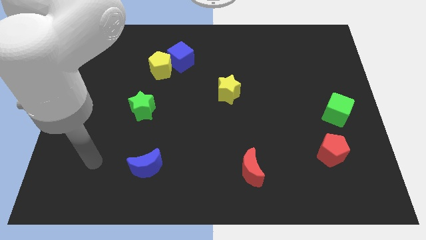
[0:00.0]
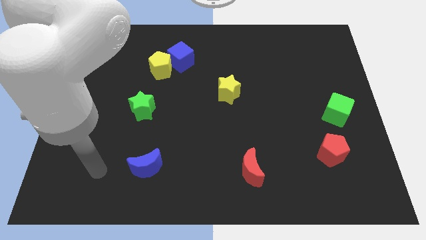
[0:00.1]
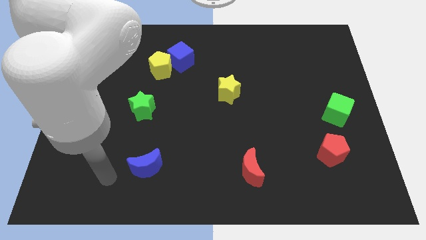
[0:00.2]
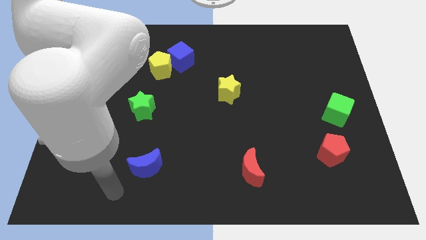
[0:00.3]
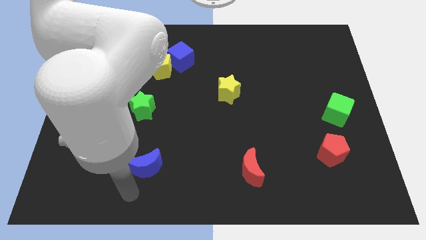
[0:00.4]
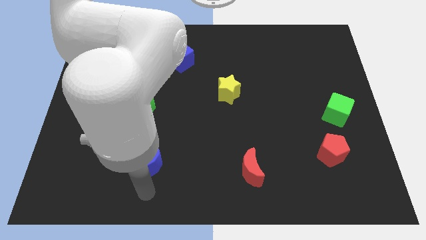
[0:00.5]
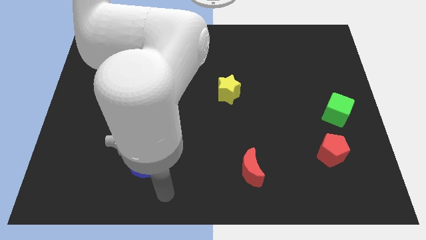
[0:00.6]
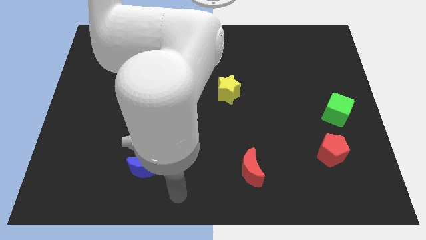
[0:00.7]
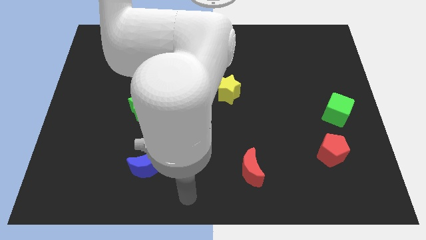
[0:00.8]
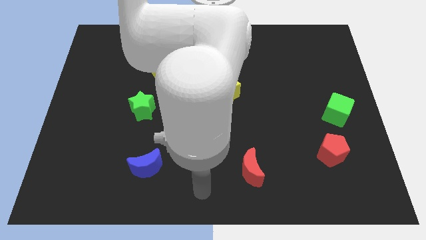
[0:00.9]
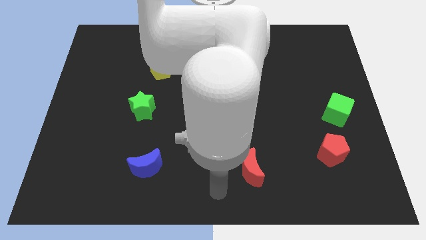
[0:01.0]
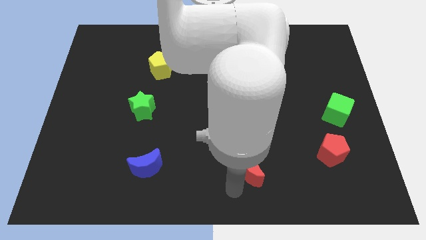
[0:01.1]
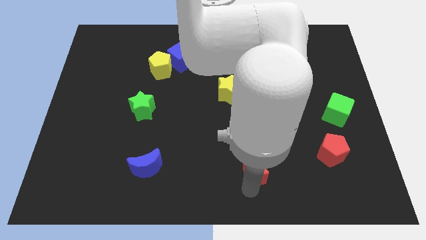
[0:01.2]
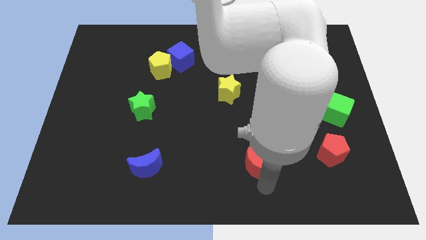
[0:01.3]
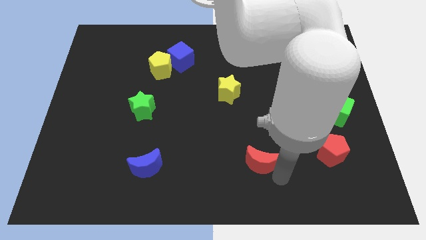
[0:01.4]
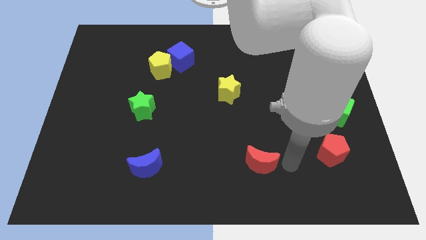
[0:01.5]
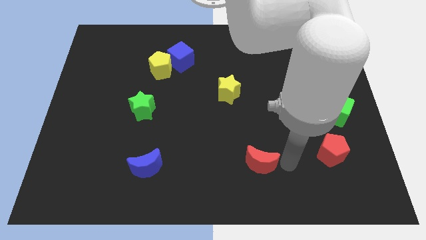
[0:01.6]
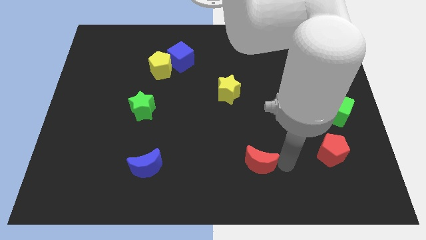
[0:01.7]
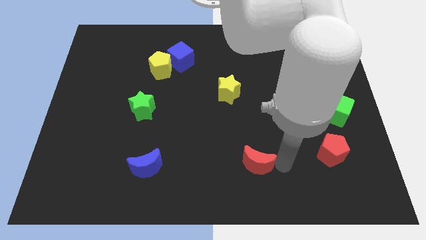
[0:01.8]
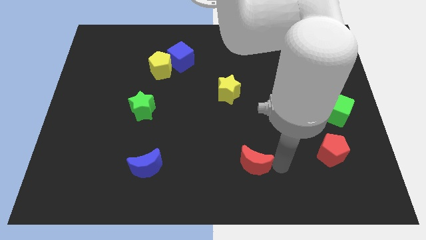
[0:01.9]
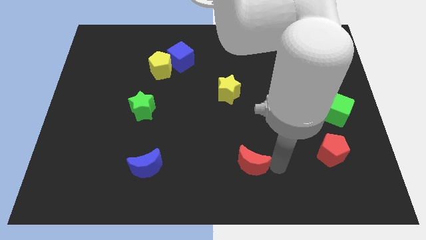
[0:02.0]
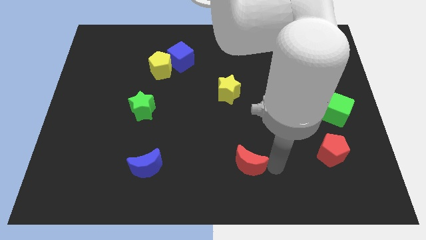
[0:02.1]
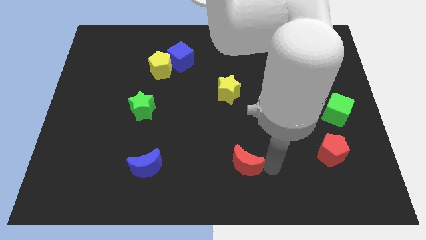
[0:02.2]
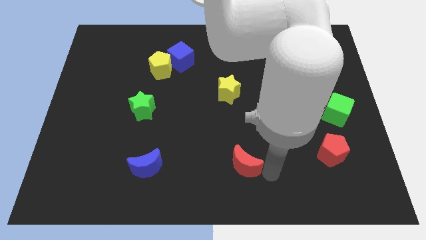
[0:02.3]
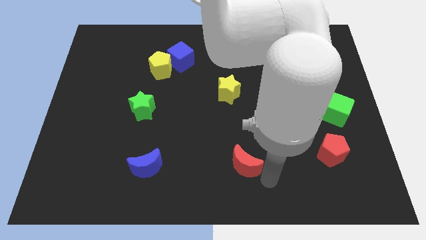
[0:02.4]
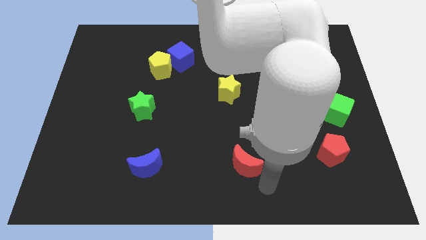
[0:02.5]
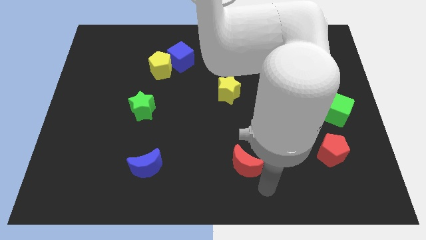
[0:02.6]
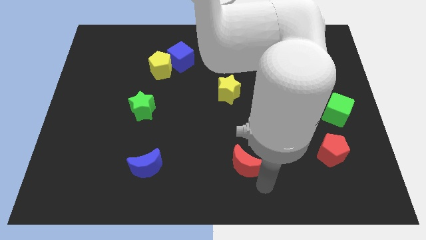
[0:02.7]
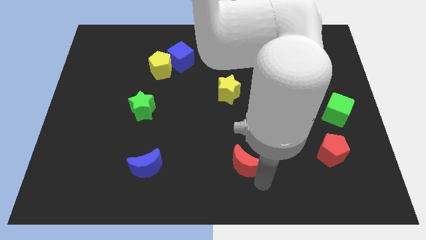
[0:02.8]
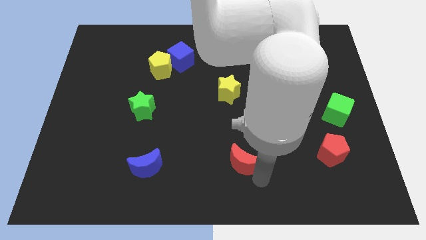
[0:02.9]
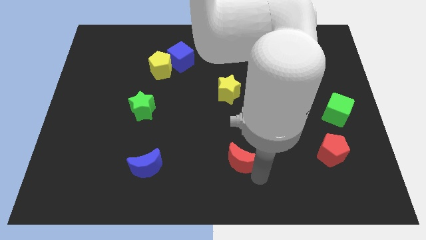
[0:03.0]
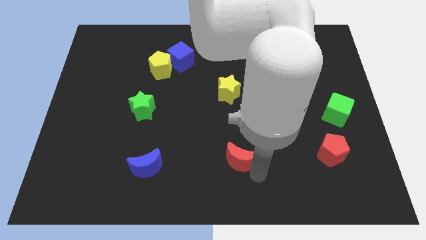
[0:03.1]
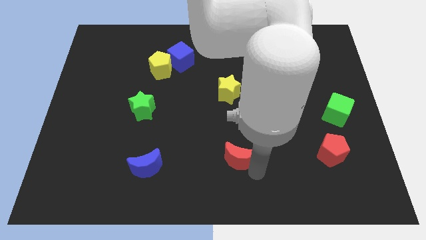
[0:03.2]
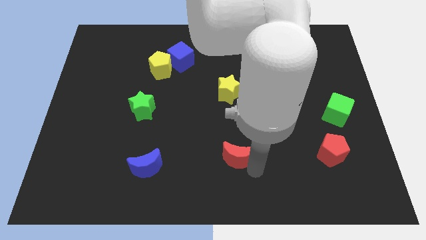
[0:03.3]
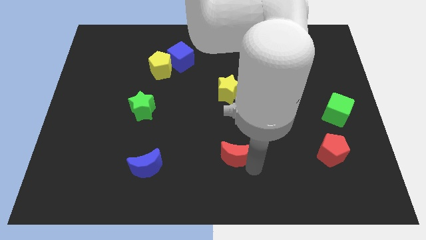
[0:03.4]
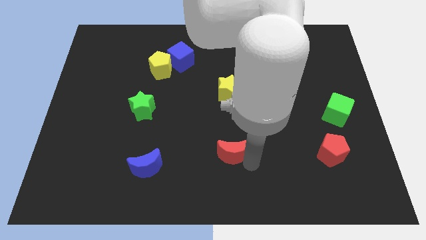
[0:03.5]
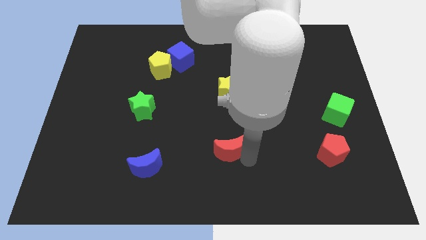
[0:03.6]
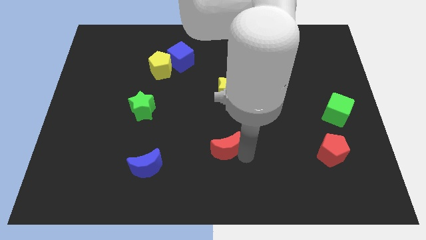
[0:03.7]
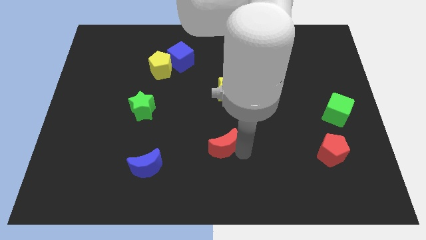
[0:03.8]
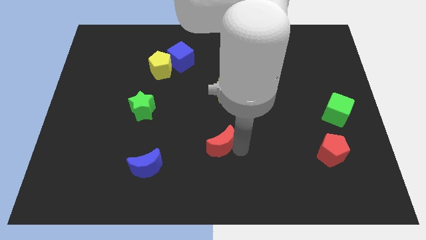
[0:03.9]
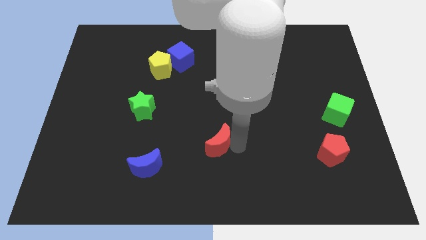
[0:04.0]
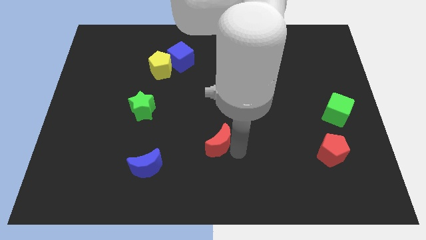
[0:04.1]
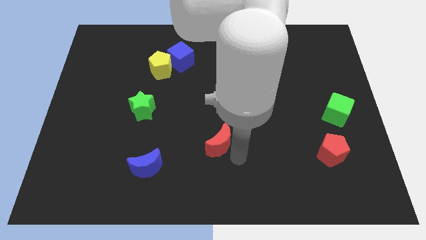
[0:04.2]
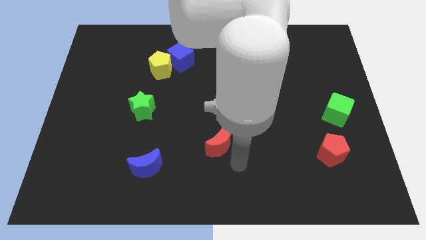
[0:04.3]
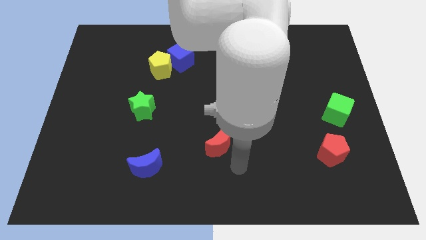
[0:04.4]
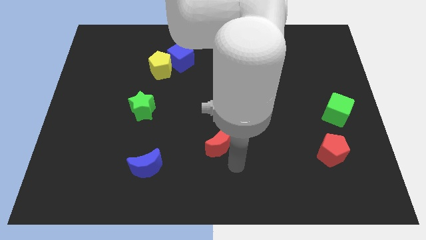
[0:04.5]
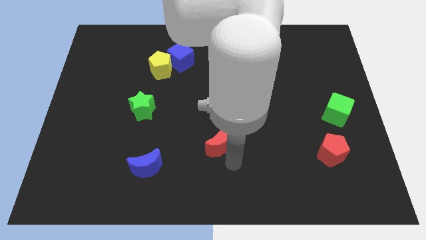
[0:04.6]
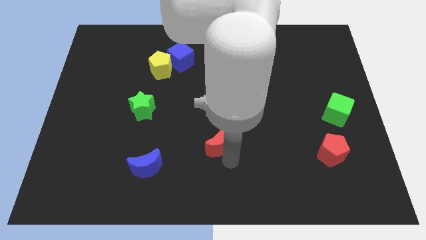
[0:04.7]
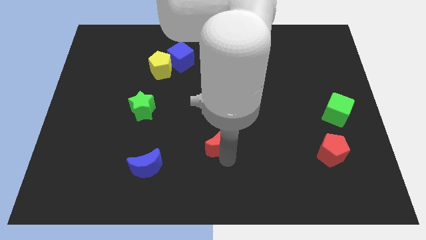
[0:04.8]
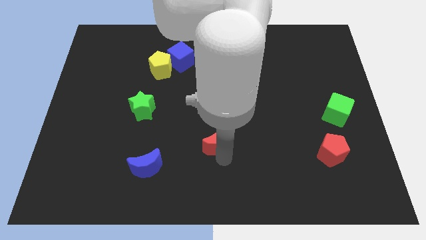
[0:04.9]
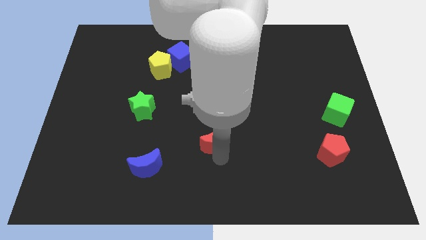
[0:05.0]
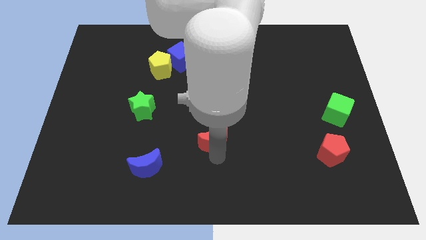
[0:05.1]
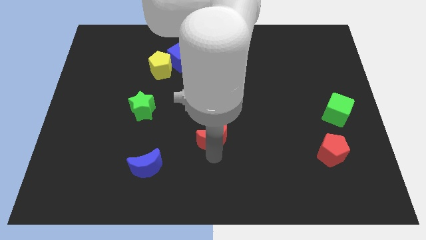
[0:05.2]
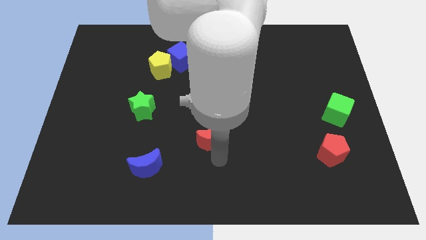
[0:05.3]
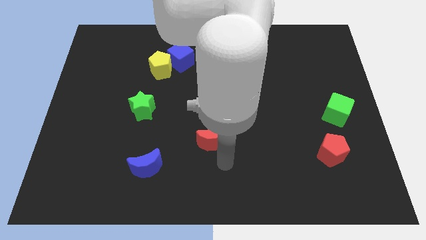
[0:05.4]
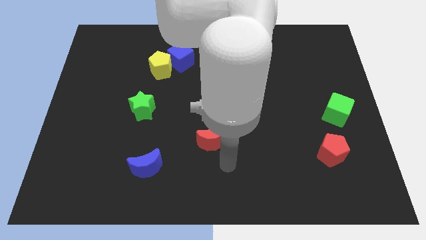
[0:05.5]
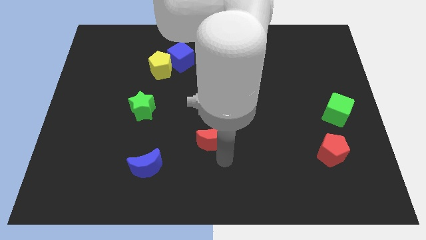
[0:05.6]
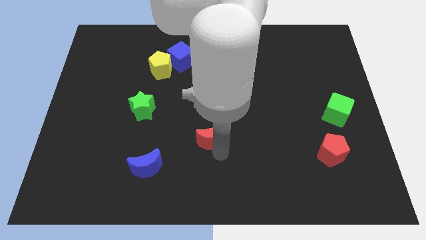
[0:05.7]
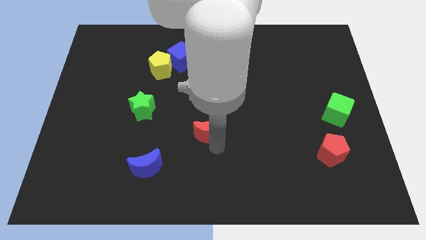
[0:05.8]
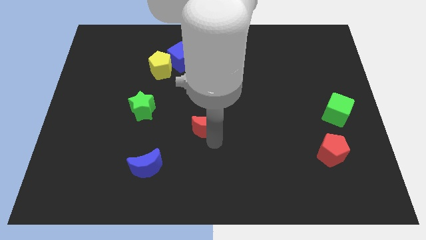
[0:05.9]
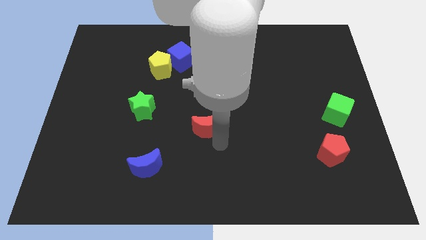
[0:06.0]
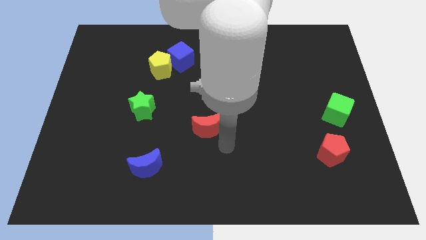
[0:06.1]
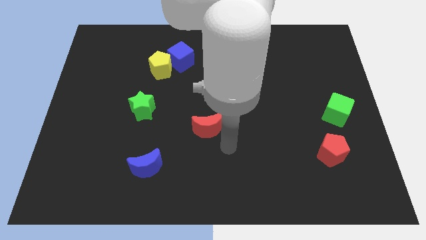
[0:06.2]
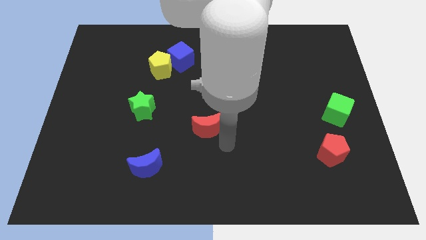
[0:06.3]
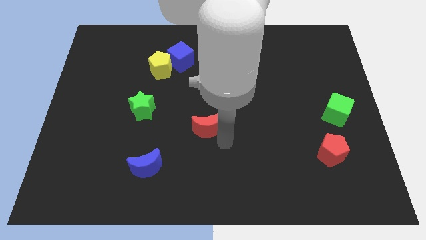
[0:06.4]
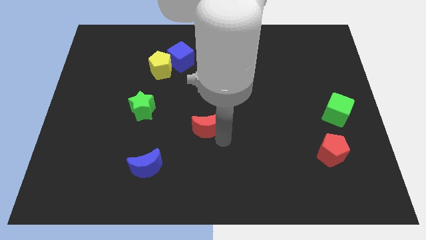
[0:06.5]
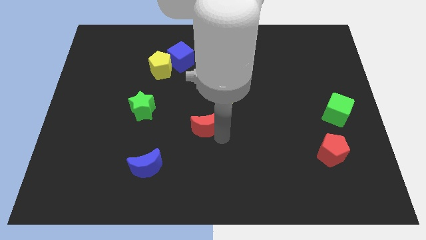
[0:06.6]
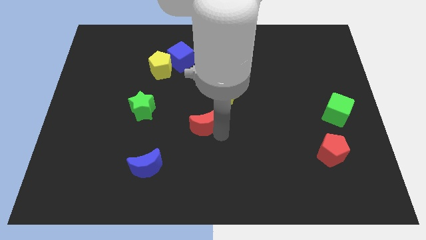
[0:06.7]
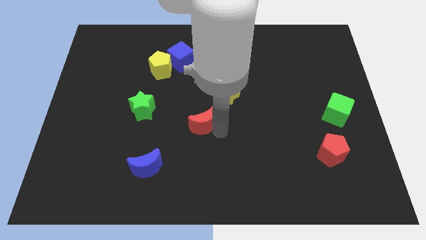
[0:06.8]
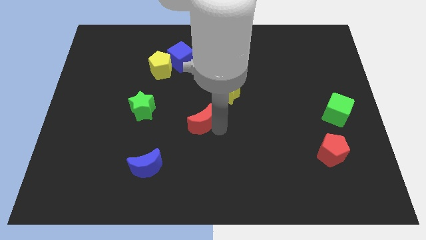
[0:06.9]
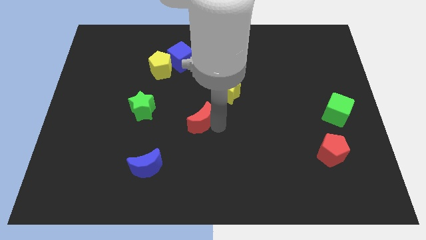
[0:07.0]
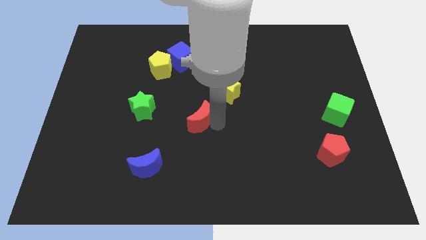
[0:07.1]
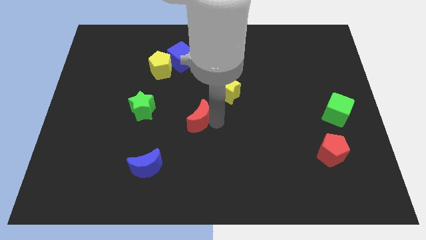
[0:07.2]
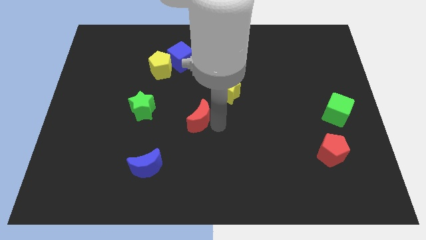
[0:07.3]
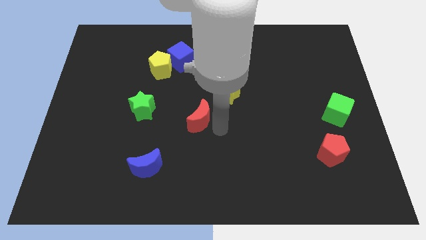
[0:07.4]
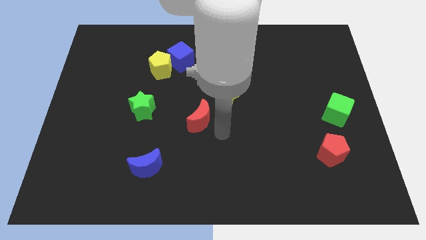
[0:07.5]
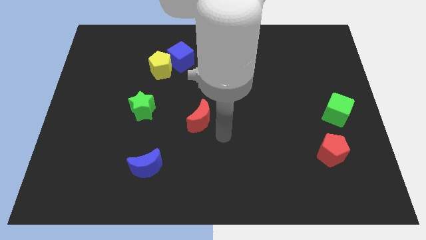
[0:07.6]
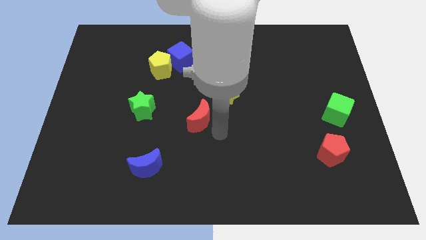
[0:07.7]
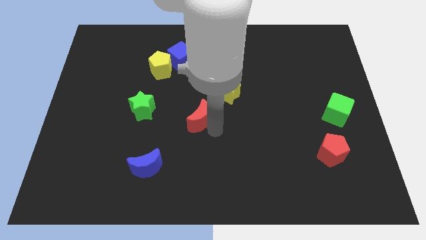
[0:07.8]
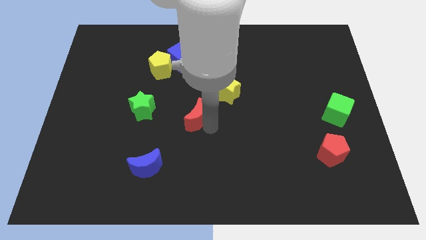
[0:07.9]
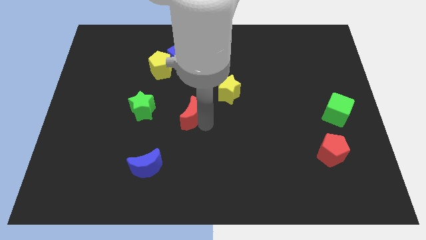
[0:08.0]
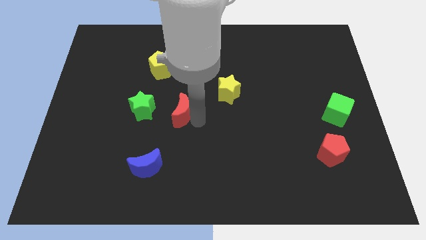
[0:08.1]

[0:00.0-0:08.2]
push the red moon up and left diagonally
